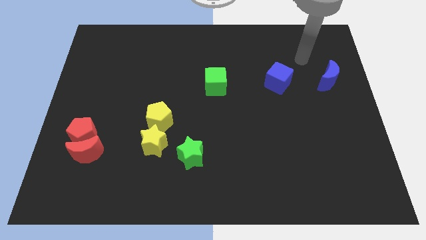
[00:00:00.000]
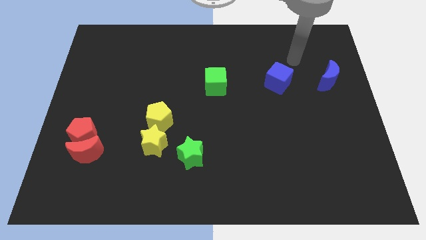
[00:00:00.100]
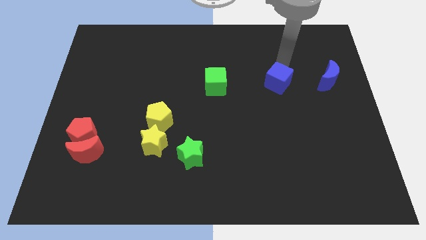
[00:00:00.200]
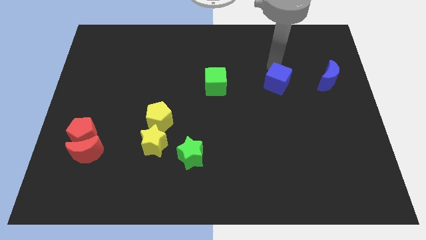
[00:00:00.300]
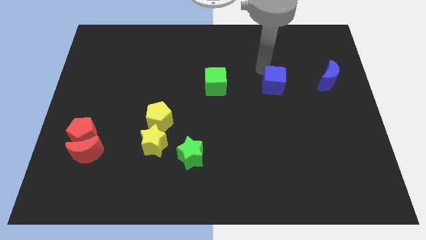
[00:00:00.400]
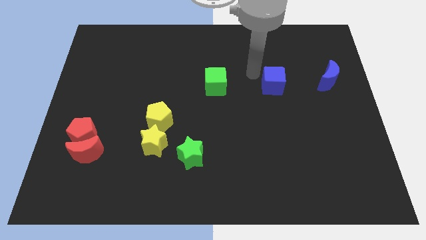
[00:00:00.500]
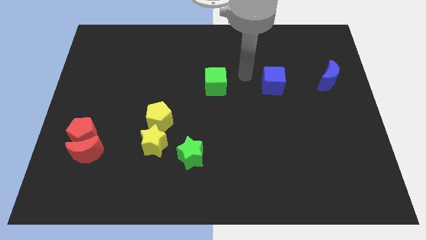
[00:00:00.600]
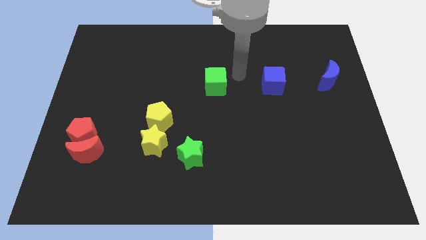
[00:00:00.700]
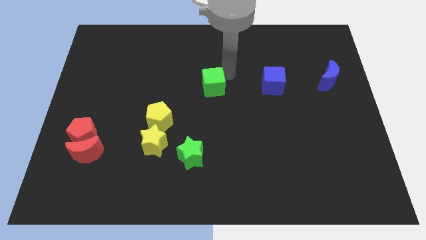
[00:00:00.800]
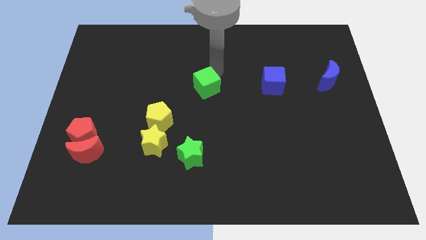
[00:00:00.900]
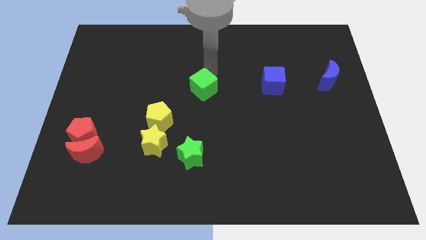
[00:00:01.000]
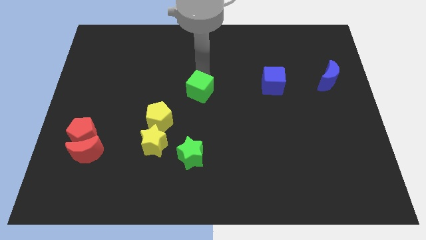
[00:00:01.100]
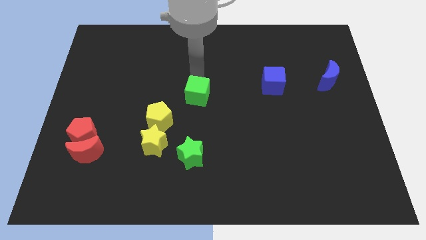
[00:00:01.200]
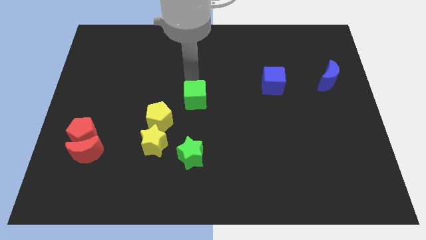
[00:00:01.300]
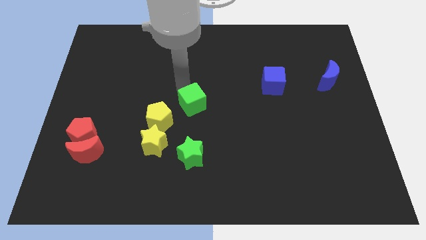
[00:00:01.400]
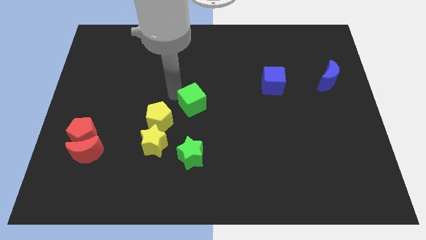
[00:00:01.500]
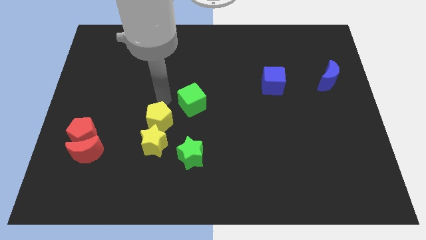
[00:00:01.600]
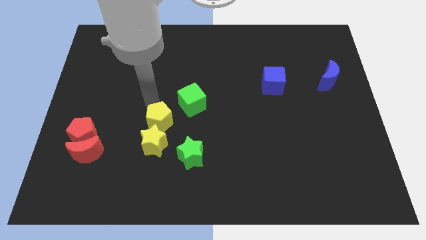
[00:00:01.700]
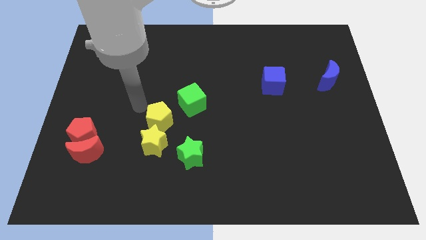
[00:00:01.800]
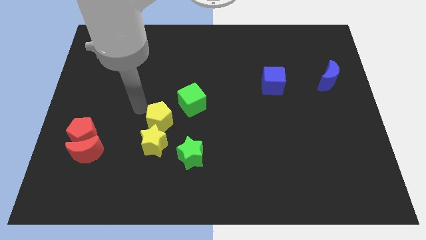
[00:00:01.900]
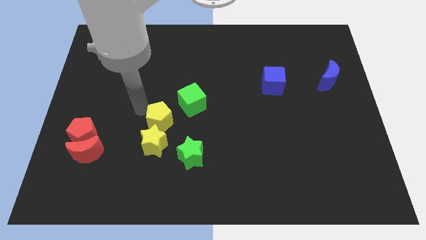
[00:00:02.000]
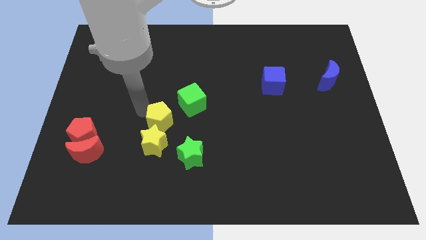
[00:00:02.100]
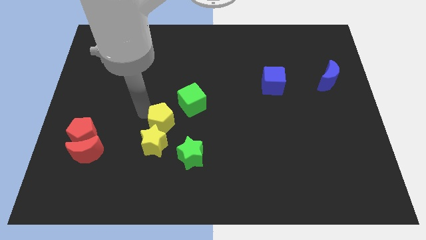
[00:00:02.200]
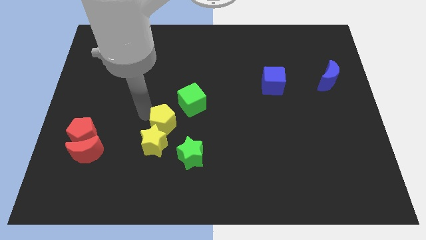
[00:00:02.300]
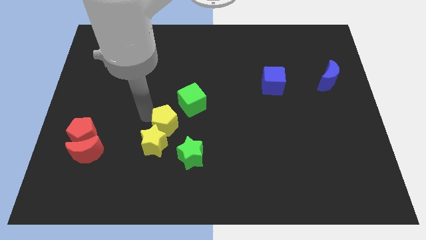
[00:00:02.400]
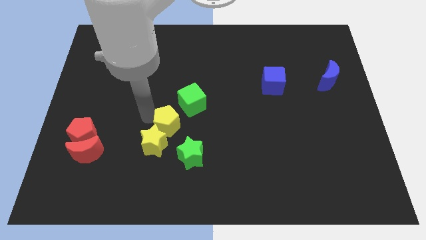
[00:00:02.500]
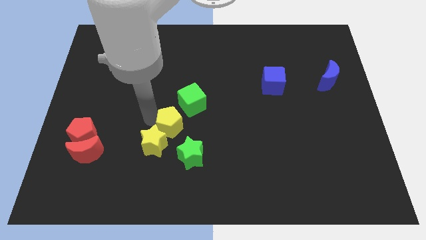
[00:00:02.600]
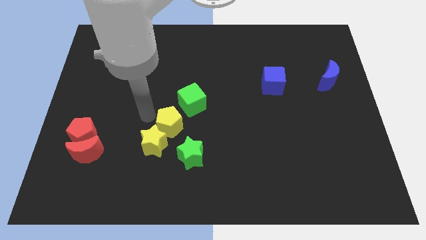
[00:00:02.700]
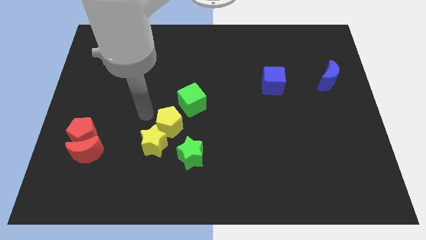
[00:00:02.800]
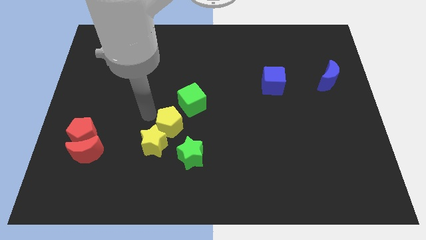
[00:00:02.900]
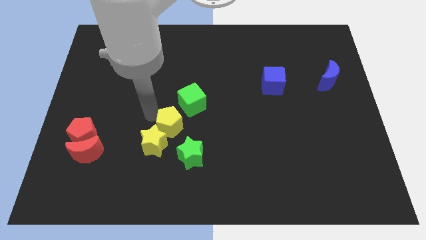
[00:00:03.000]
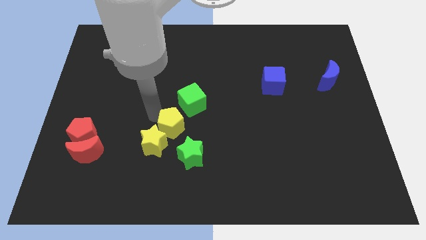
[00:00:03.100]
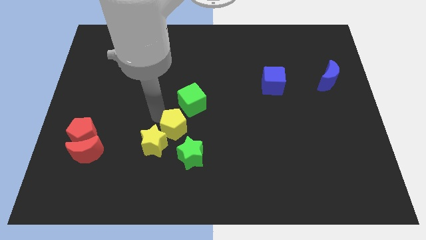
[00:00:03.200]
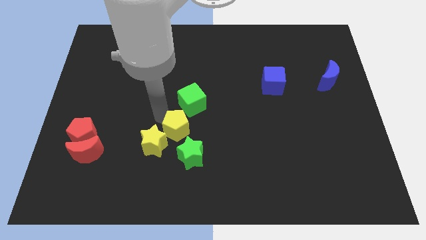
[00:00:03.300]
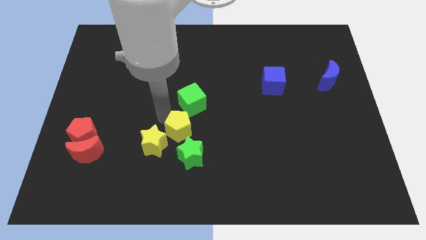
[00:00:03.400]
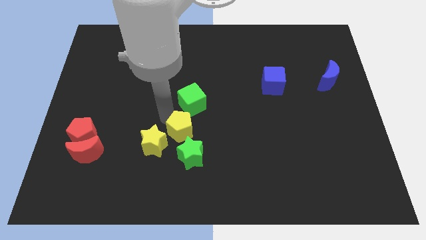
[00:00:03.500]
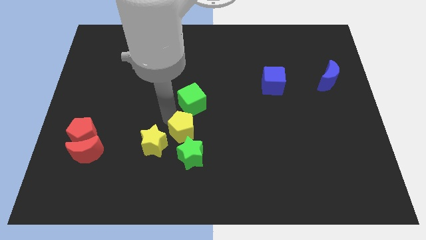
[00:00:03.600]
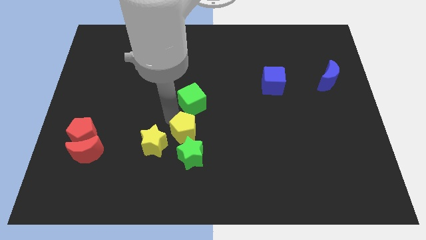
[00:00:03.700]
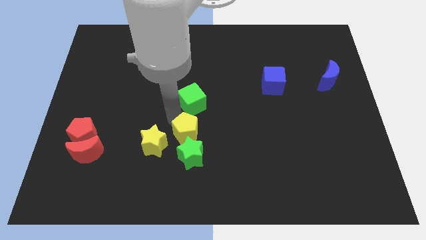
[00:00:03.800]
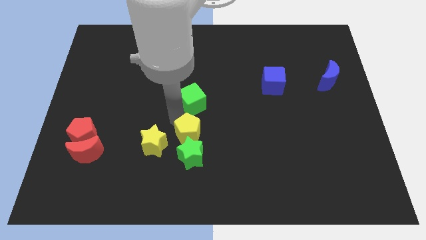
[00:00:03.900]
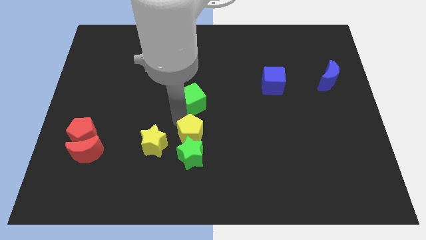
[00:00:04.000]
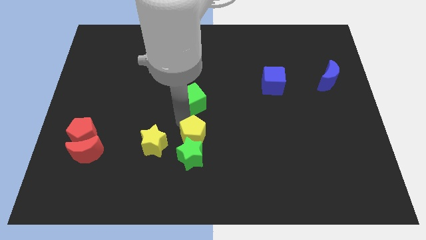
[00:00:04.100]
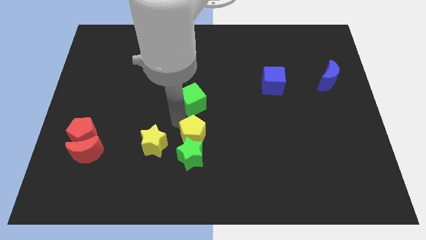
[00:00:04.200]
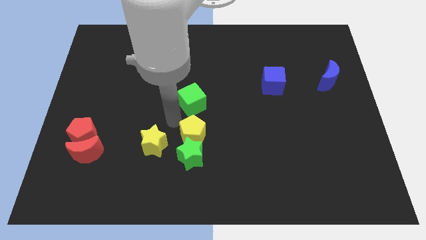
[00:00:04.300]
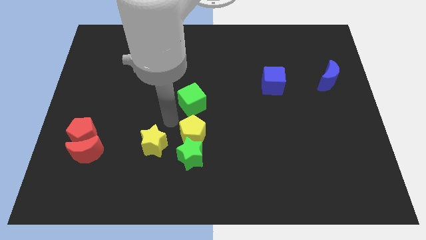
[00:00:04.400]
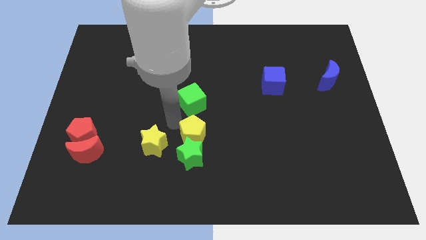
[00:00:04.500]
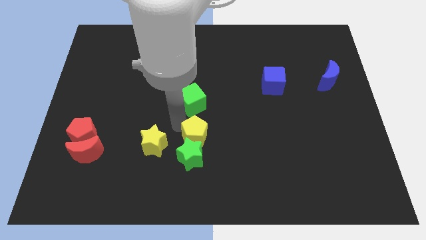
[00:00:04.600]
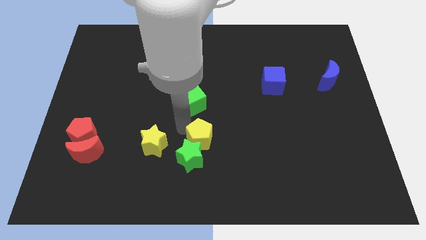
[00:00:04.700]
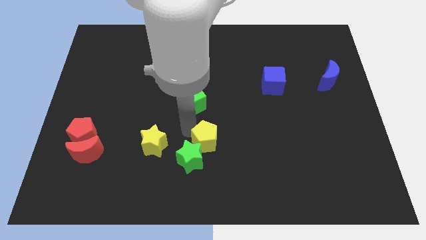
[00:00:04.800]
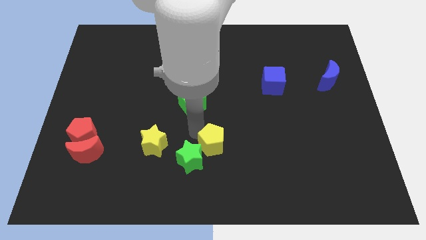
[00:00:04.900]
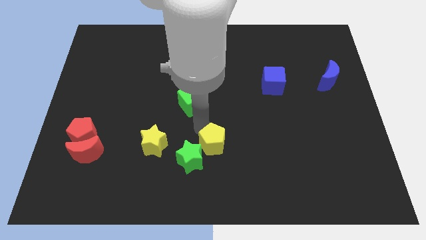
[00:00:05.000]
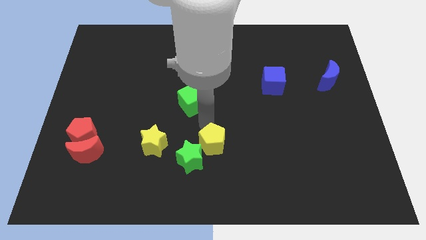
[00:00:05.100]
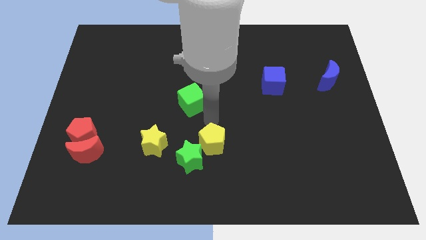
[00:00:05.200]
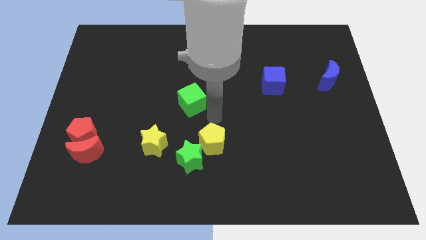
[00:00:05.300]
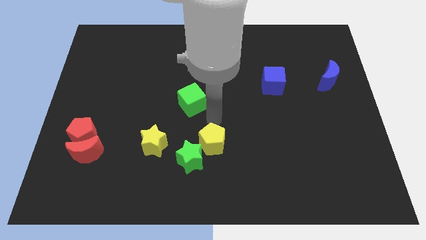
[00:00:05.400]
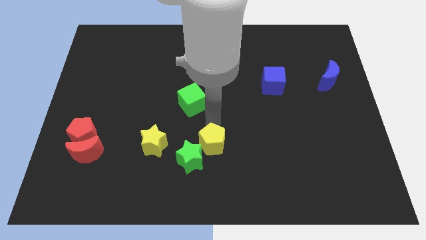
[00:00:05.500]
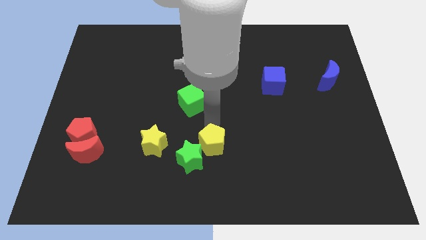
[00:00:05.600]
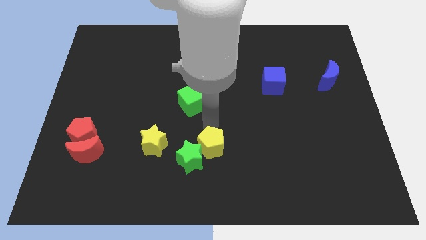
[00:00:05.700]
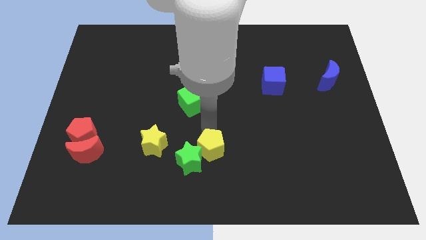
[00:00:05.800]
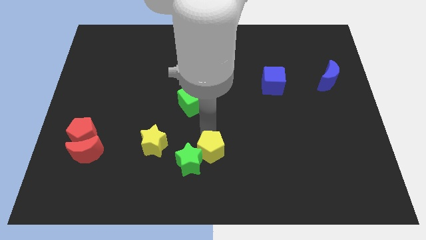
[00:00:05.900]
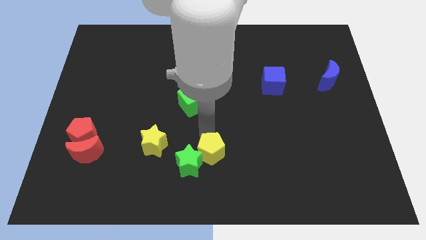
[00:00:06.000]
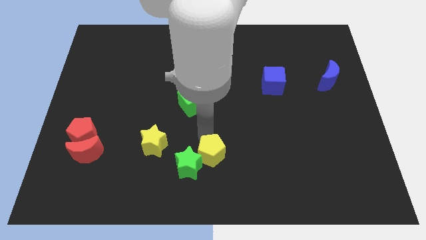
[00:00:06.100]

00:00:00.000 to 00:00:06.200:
put the yellow pentagon to the bottom side
